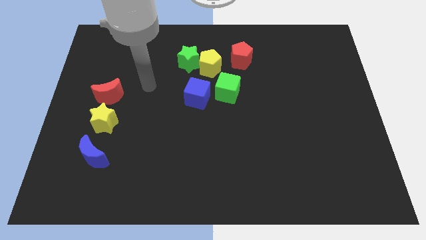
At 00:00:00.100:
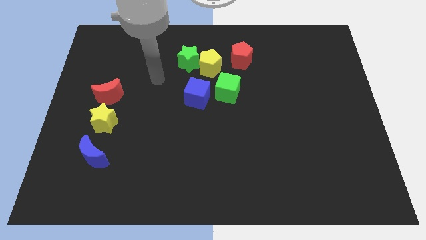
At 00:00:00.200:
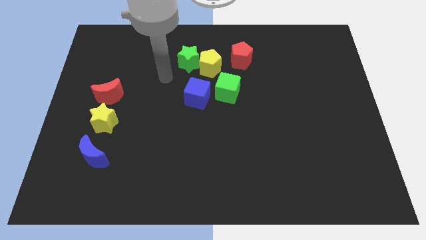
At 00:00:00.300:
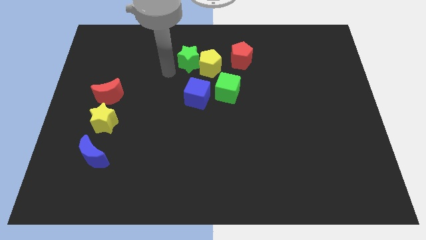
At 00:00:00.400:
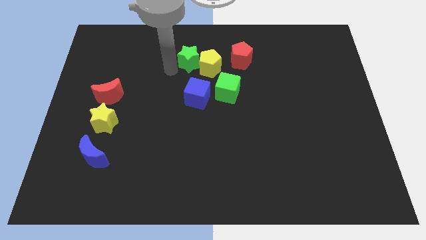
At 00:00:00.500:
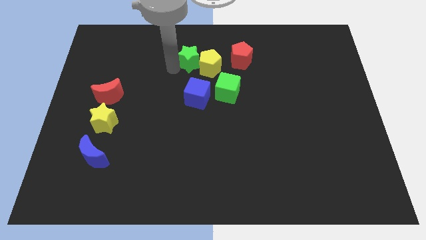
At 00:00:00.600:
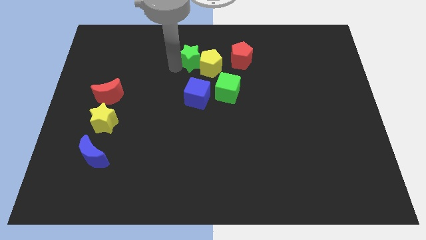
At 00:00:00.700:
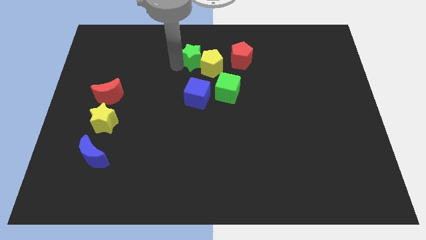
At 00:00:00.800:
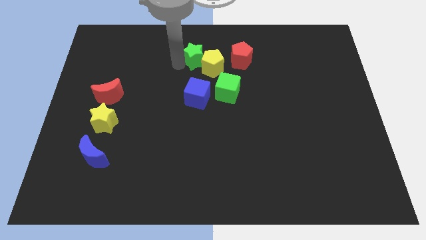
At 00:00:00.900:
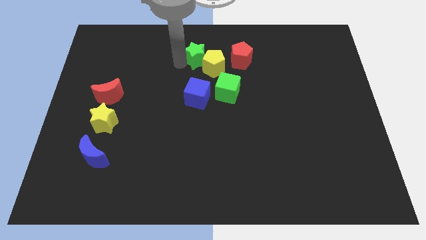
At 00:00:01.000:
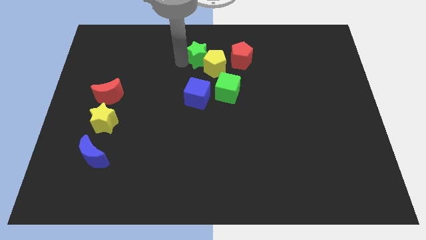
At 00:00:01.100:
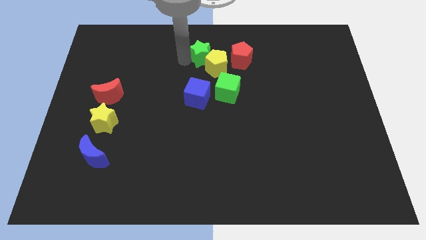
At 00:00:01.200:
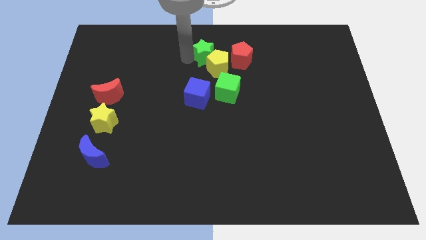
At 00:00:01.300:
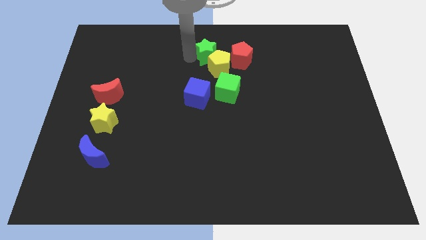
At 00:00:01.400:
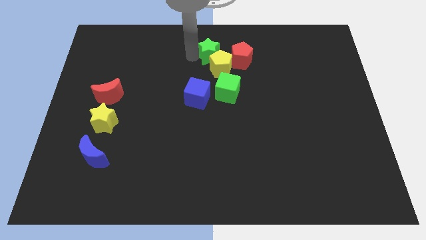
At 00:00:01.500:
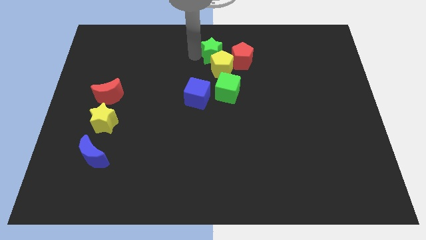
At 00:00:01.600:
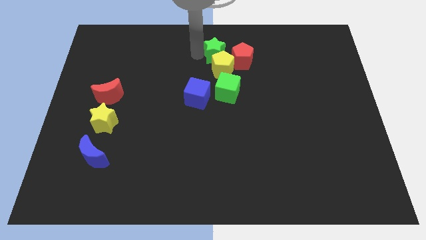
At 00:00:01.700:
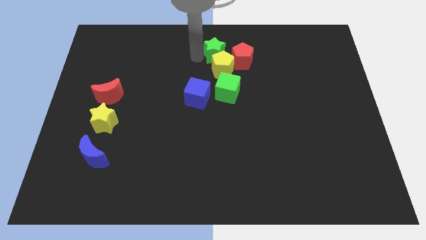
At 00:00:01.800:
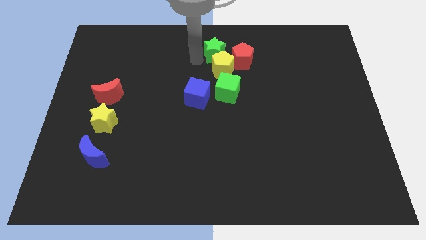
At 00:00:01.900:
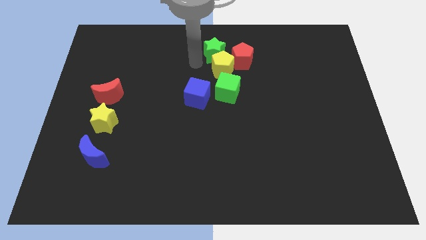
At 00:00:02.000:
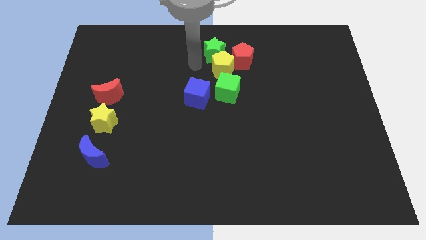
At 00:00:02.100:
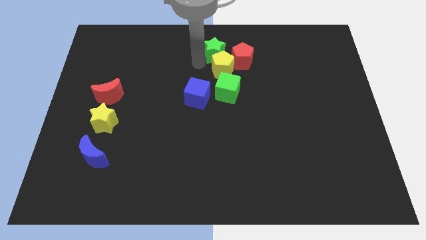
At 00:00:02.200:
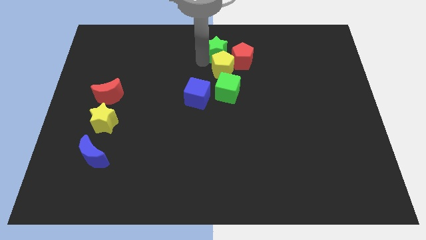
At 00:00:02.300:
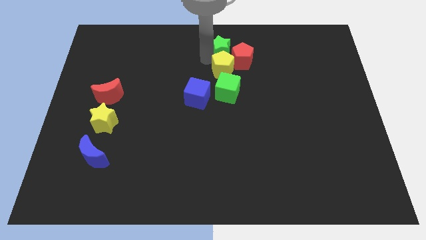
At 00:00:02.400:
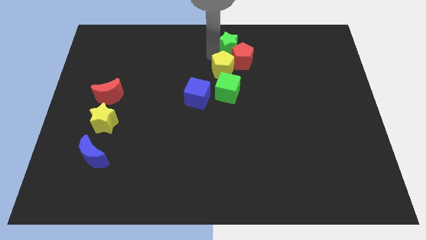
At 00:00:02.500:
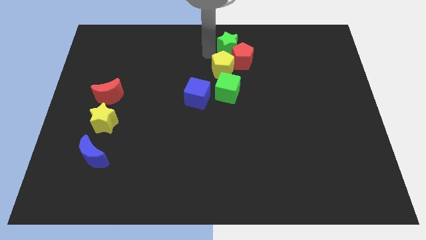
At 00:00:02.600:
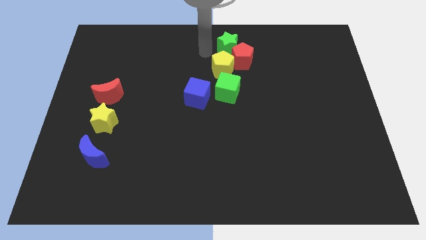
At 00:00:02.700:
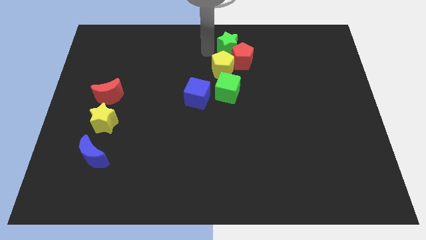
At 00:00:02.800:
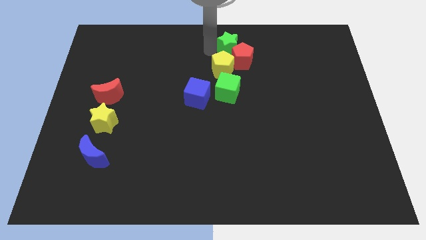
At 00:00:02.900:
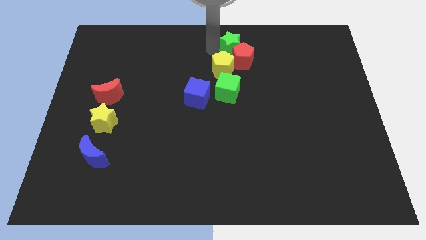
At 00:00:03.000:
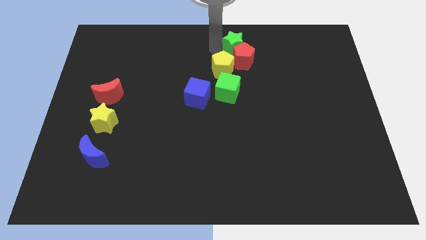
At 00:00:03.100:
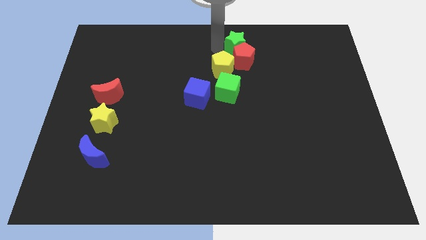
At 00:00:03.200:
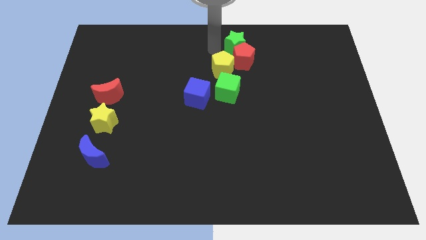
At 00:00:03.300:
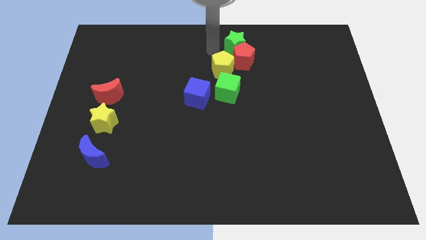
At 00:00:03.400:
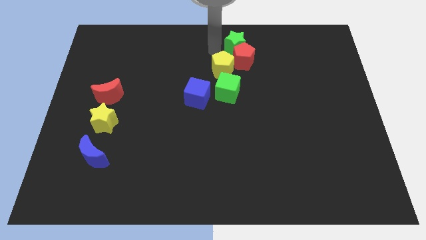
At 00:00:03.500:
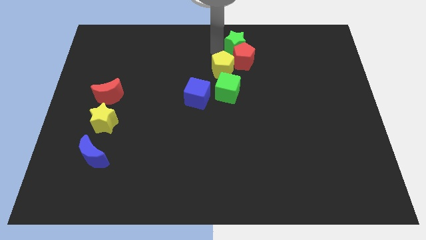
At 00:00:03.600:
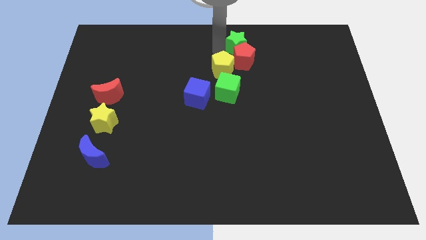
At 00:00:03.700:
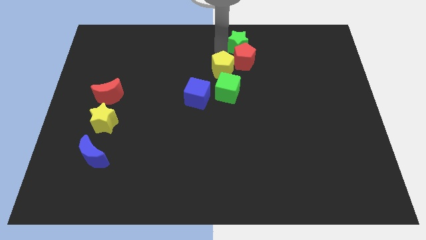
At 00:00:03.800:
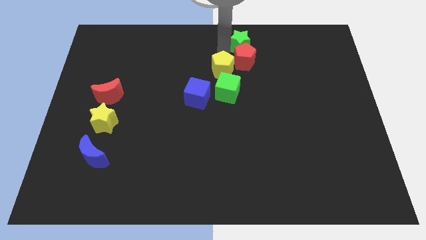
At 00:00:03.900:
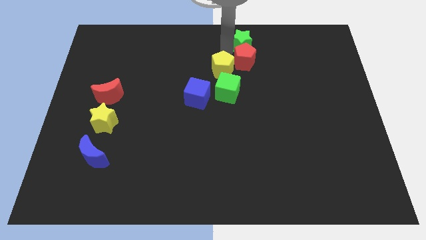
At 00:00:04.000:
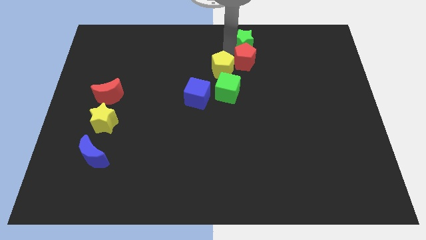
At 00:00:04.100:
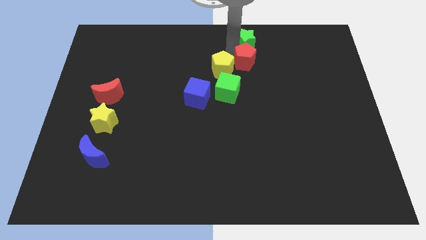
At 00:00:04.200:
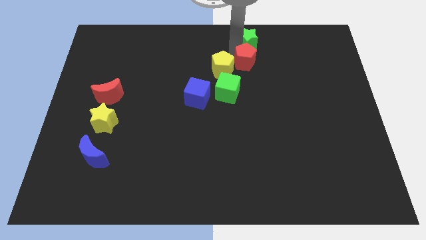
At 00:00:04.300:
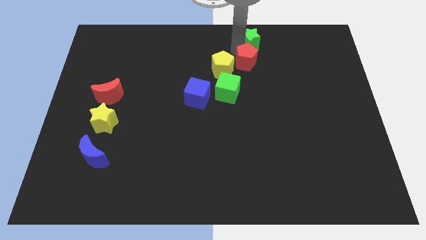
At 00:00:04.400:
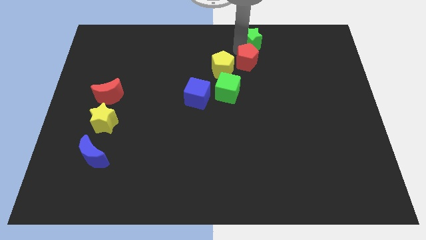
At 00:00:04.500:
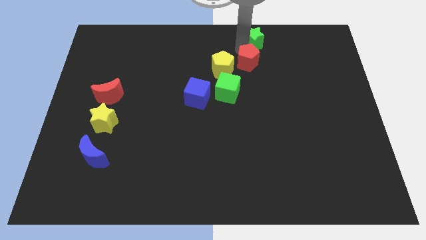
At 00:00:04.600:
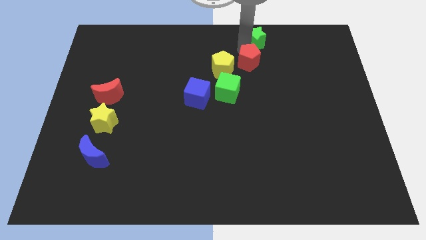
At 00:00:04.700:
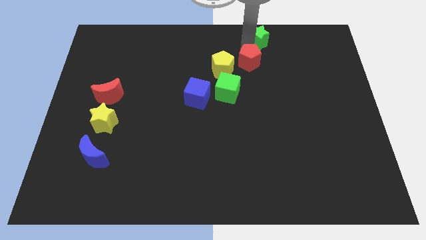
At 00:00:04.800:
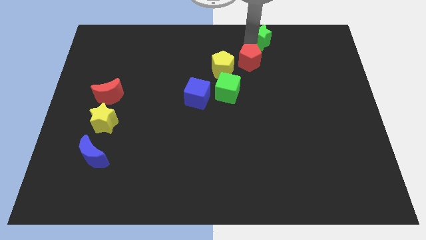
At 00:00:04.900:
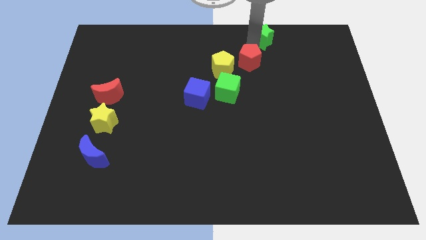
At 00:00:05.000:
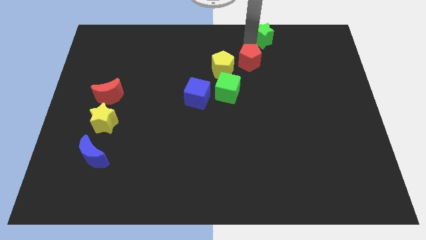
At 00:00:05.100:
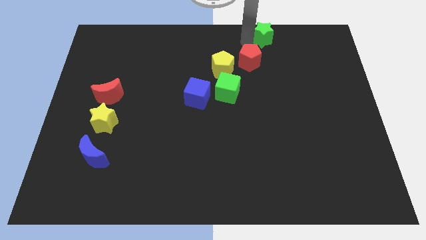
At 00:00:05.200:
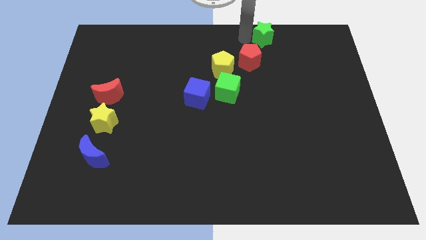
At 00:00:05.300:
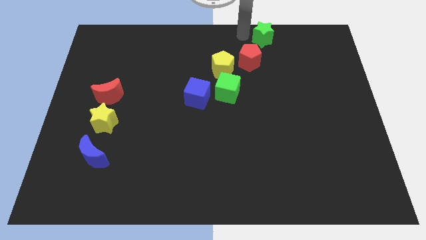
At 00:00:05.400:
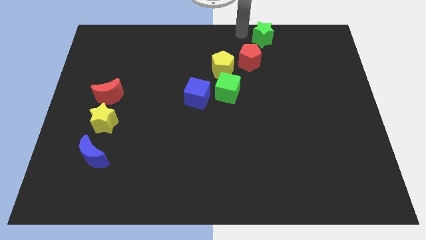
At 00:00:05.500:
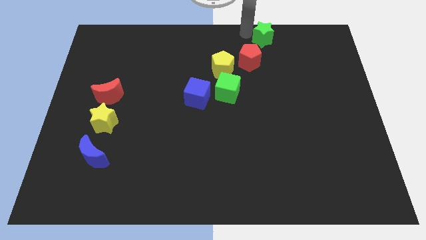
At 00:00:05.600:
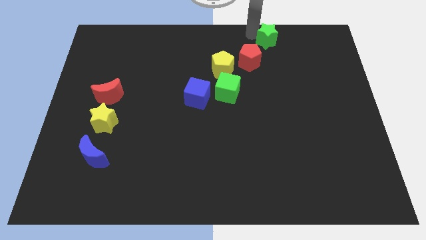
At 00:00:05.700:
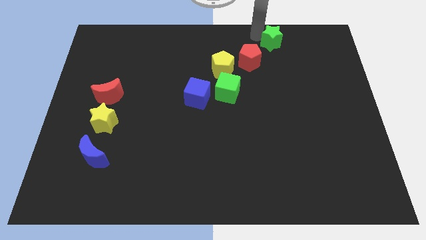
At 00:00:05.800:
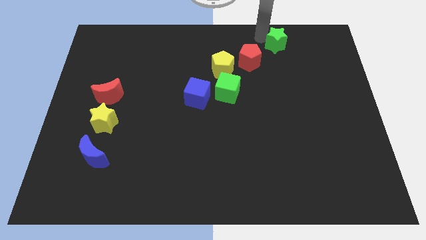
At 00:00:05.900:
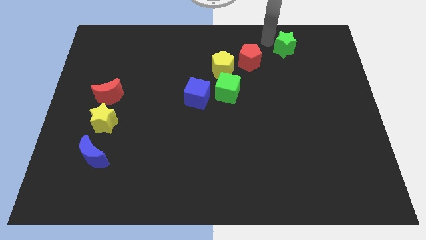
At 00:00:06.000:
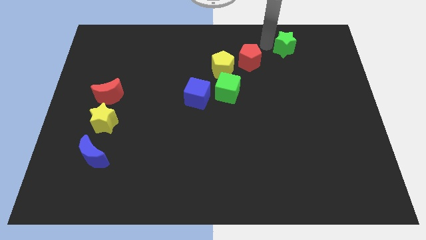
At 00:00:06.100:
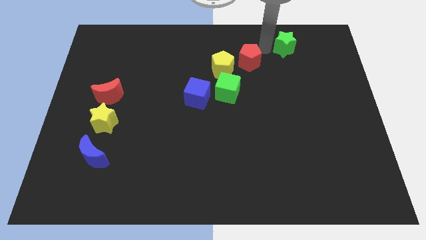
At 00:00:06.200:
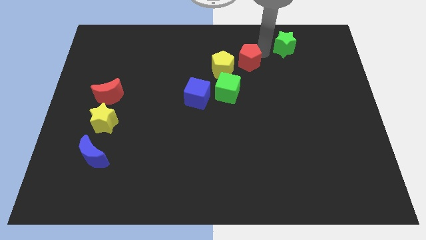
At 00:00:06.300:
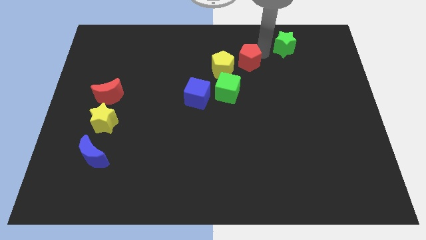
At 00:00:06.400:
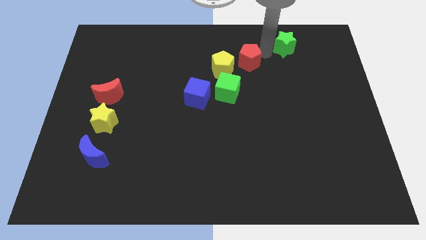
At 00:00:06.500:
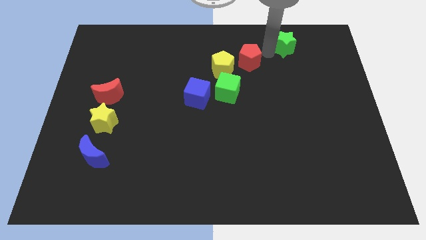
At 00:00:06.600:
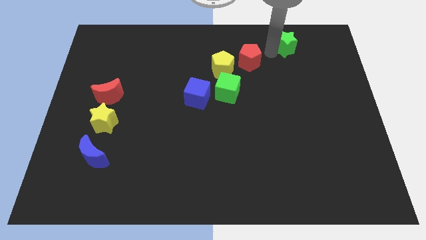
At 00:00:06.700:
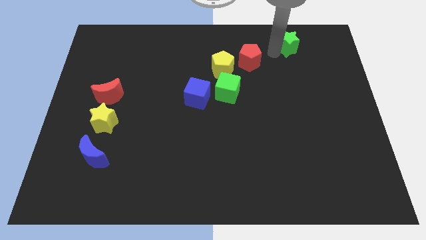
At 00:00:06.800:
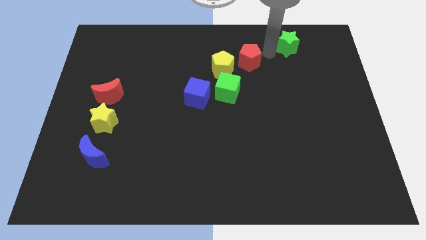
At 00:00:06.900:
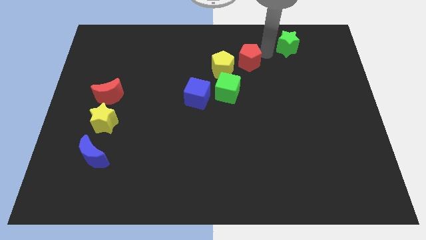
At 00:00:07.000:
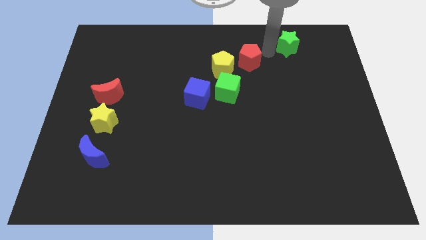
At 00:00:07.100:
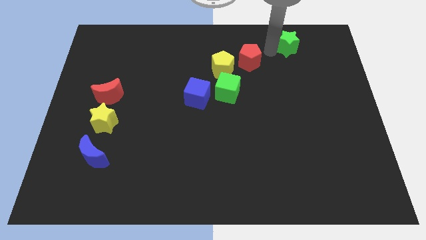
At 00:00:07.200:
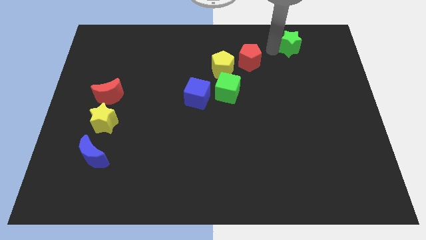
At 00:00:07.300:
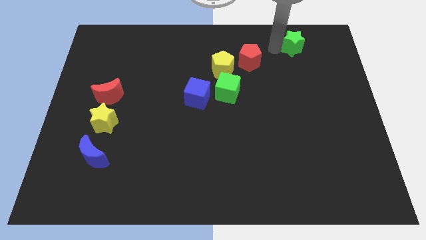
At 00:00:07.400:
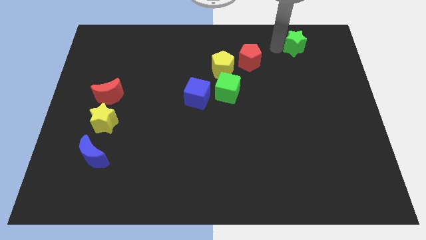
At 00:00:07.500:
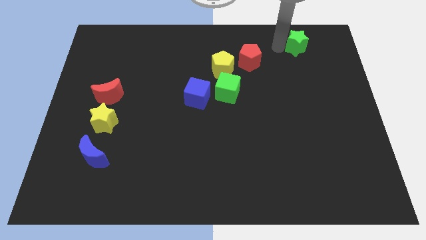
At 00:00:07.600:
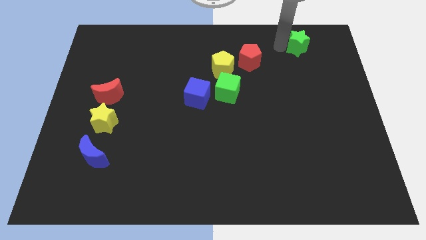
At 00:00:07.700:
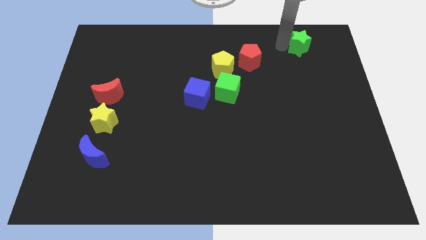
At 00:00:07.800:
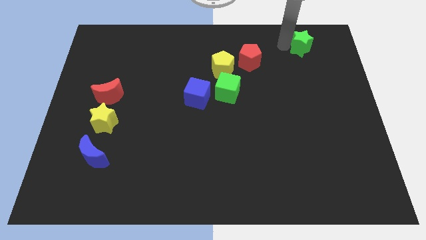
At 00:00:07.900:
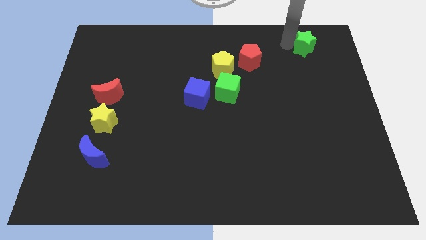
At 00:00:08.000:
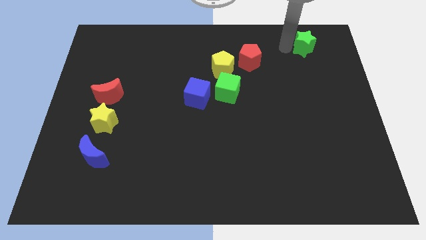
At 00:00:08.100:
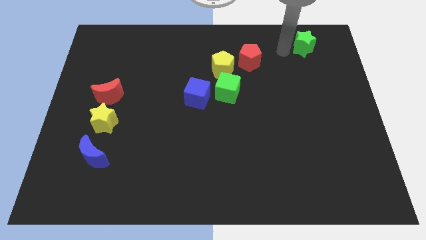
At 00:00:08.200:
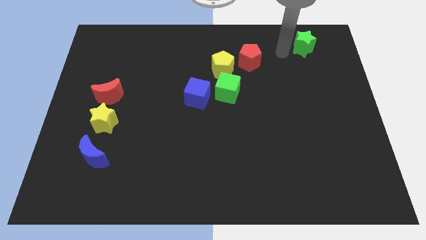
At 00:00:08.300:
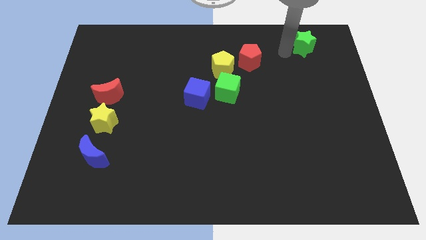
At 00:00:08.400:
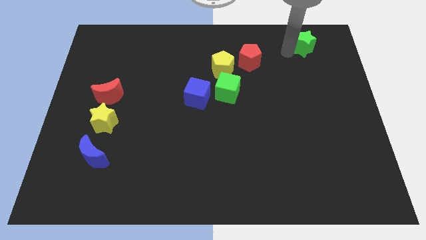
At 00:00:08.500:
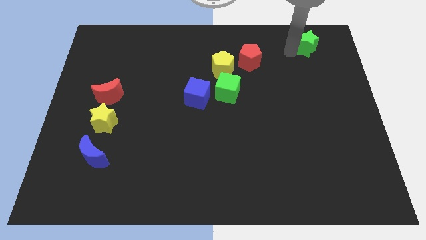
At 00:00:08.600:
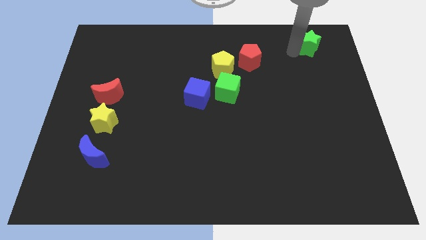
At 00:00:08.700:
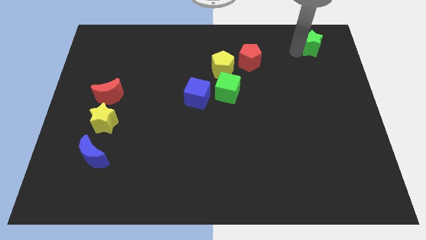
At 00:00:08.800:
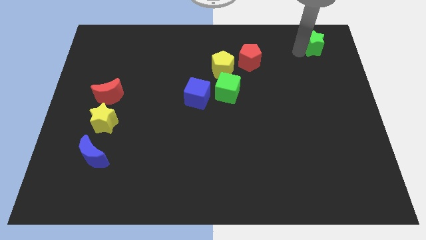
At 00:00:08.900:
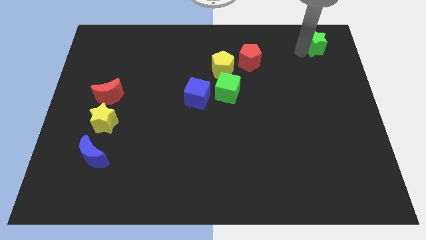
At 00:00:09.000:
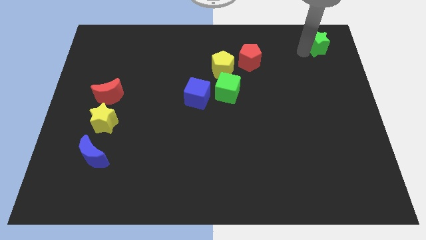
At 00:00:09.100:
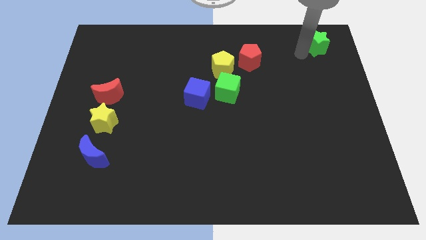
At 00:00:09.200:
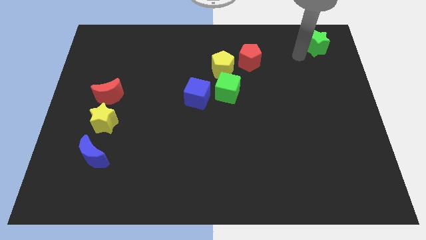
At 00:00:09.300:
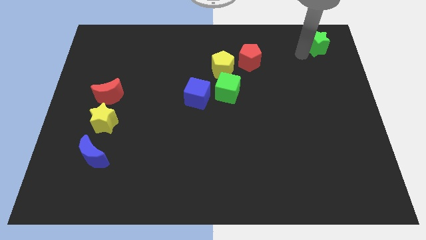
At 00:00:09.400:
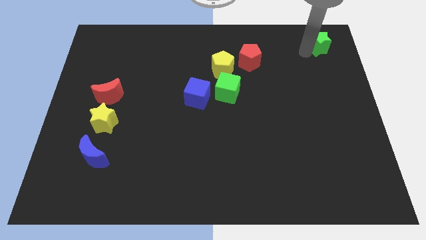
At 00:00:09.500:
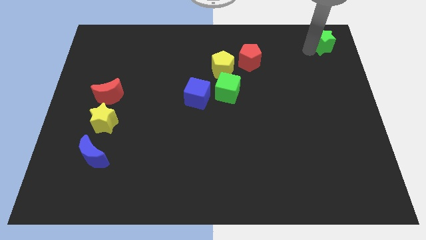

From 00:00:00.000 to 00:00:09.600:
move the green star to the top right corner
